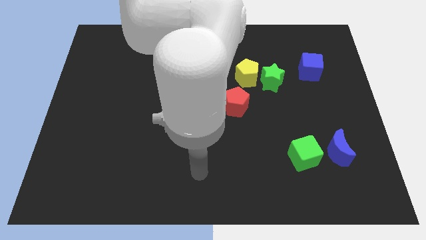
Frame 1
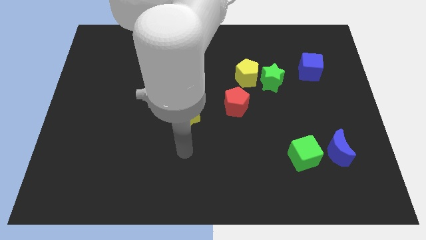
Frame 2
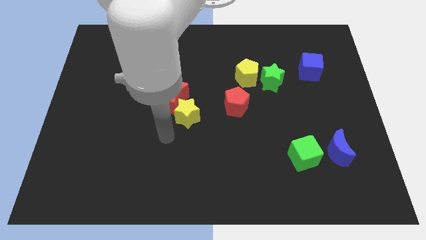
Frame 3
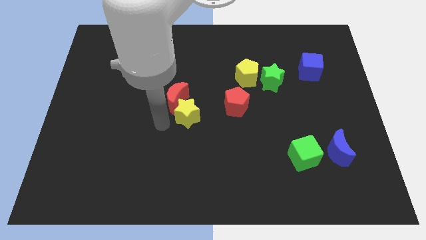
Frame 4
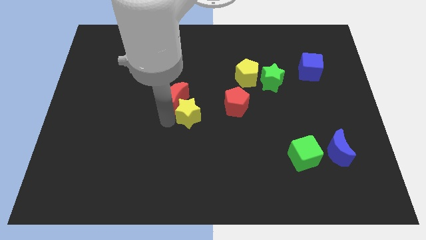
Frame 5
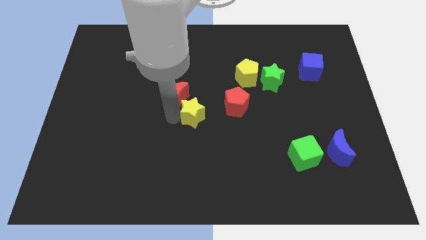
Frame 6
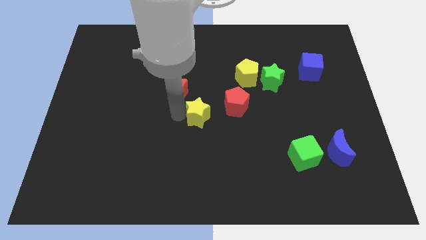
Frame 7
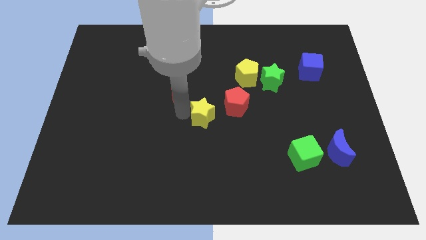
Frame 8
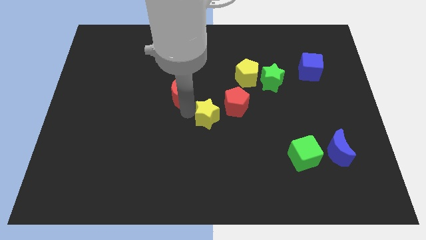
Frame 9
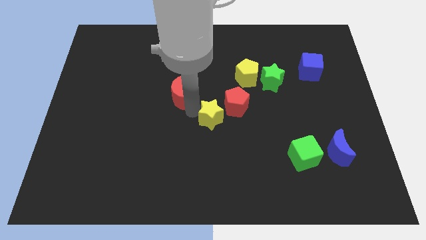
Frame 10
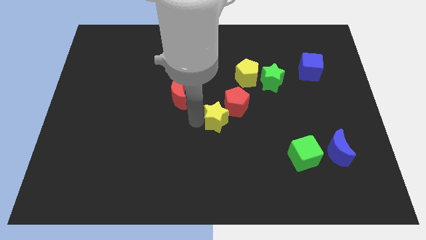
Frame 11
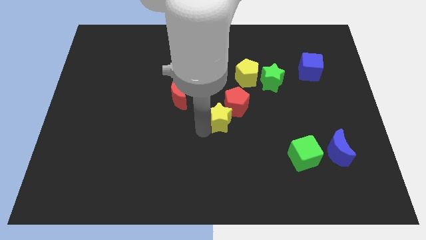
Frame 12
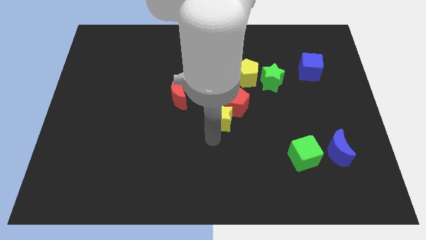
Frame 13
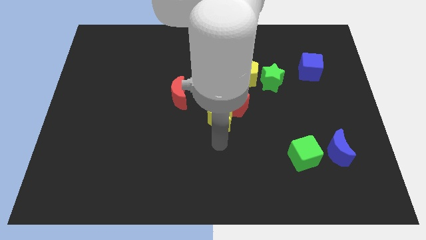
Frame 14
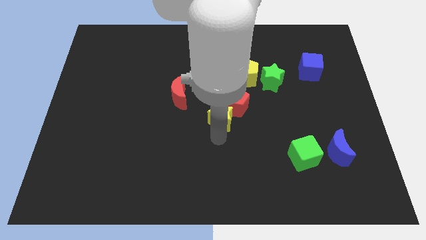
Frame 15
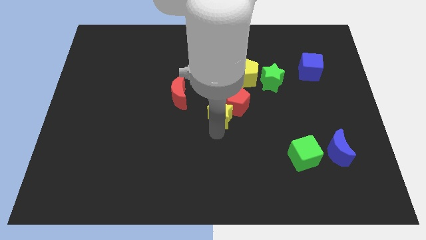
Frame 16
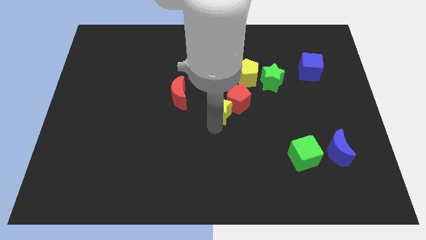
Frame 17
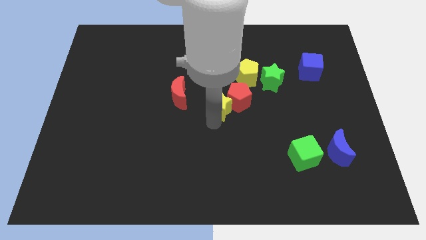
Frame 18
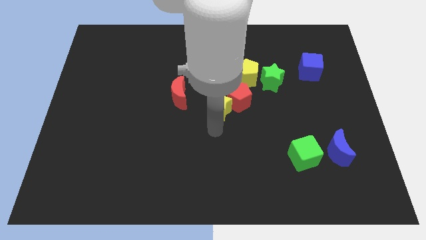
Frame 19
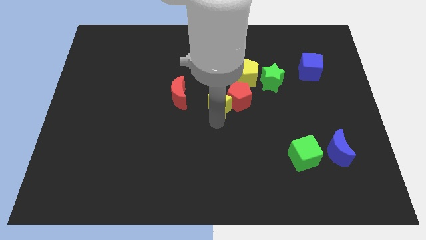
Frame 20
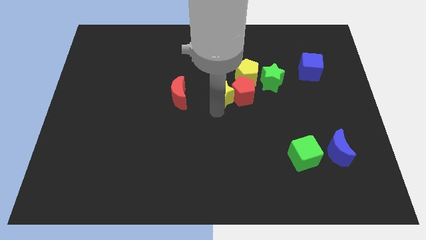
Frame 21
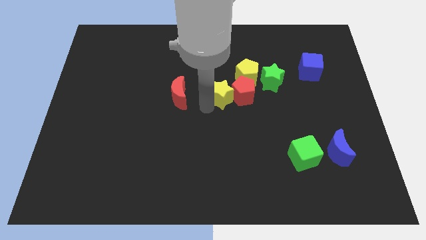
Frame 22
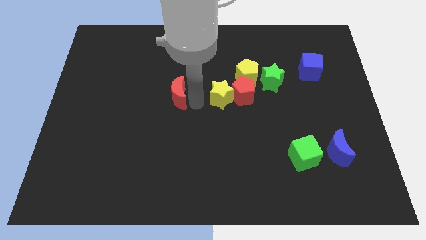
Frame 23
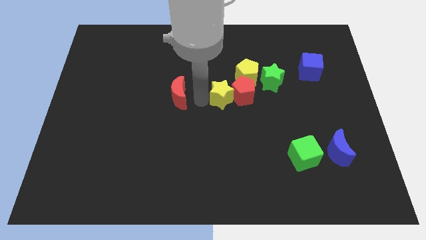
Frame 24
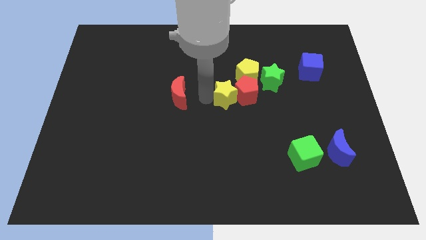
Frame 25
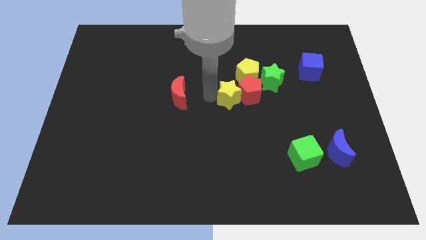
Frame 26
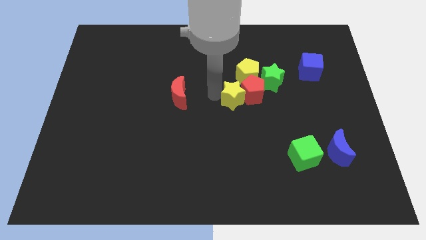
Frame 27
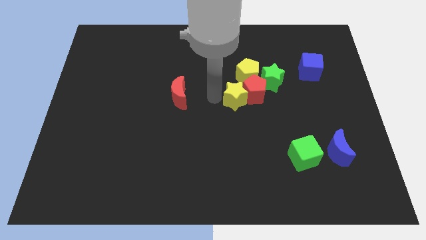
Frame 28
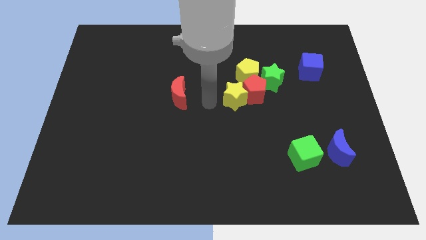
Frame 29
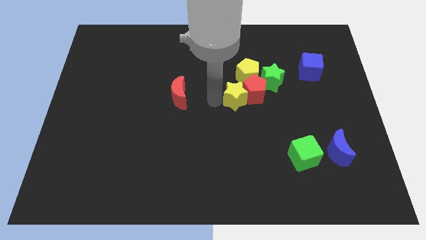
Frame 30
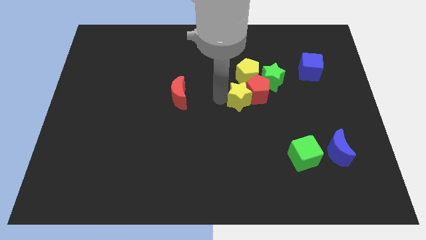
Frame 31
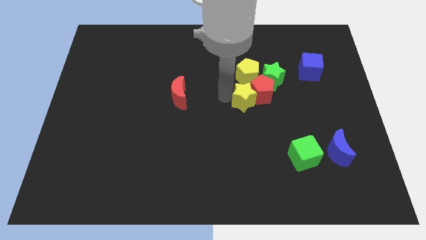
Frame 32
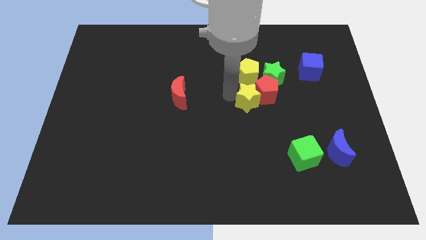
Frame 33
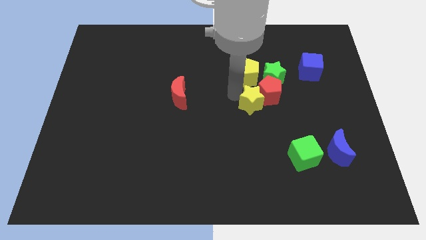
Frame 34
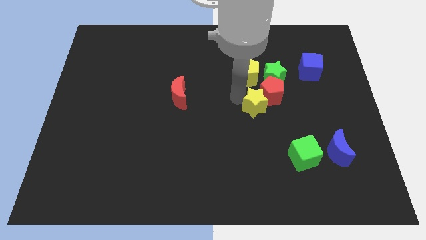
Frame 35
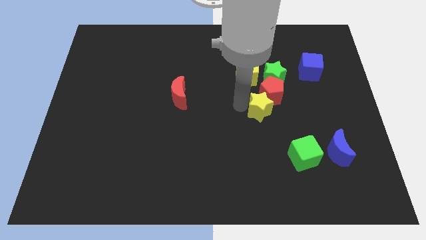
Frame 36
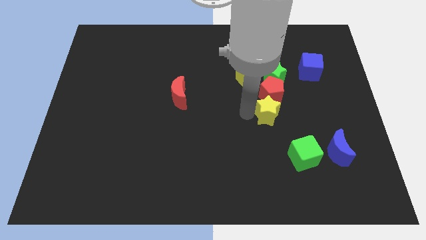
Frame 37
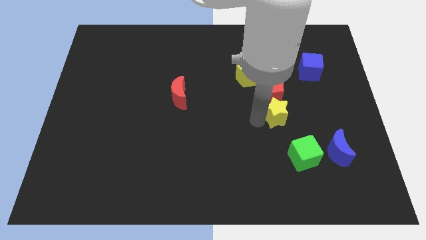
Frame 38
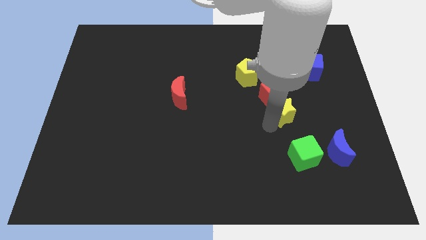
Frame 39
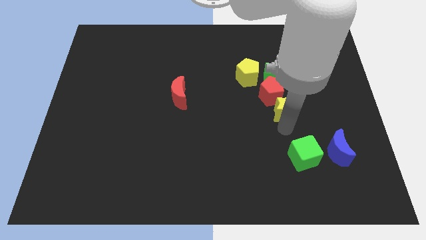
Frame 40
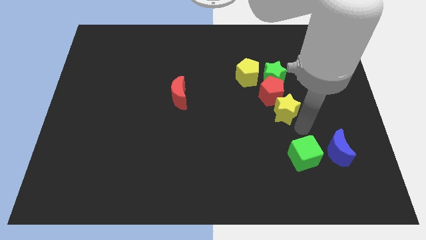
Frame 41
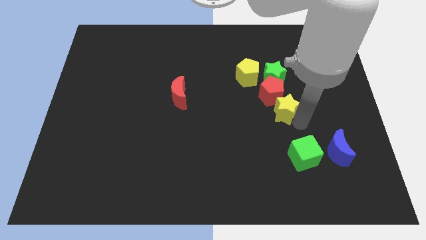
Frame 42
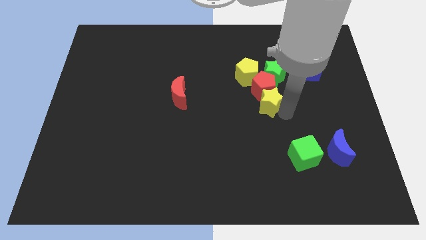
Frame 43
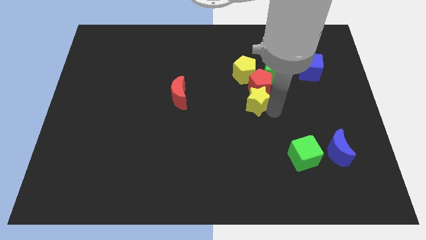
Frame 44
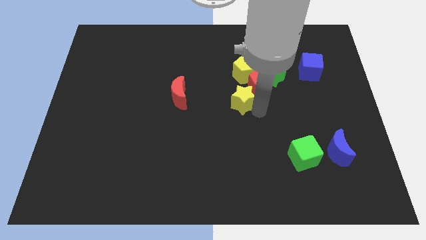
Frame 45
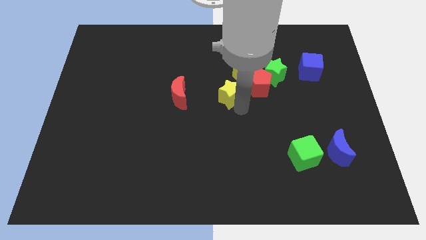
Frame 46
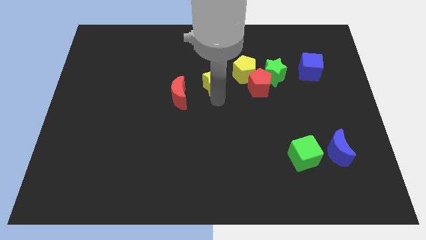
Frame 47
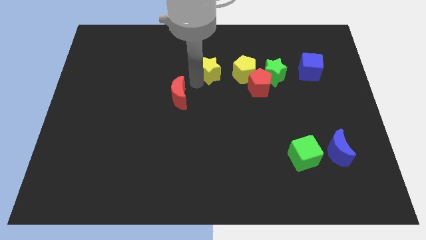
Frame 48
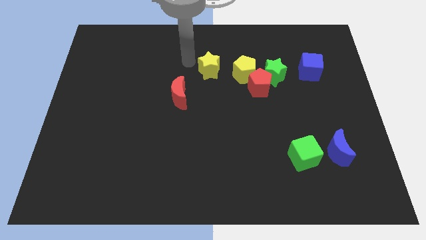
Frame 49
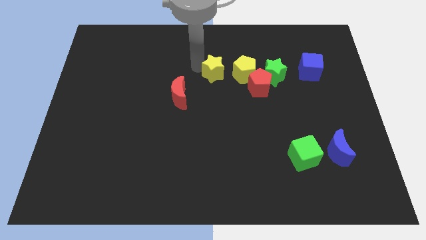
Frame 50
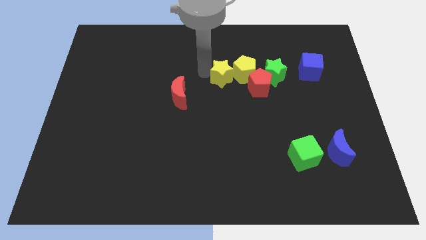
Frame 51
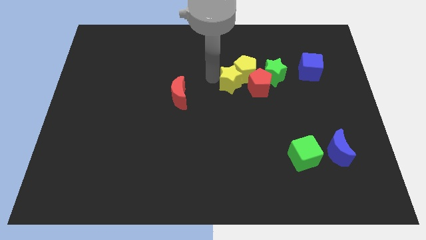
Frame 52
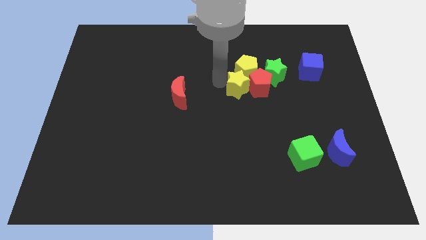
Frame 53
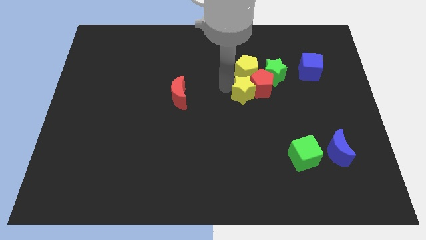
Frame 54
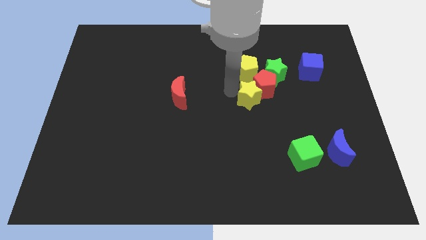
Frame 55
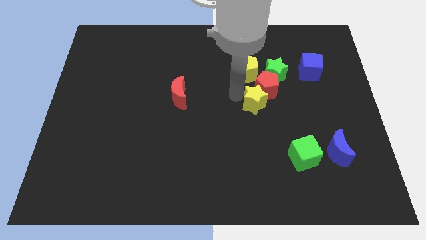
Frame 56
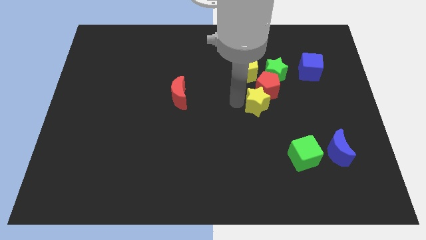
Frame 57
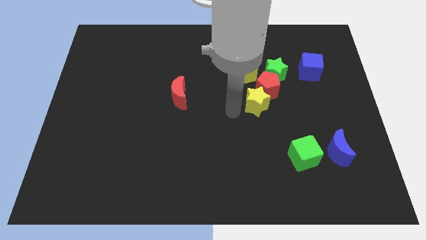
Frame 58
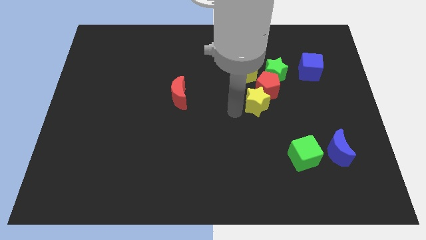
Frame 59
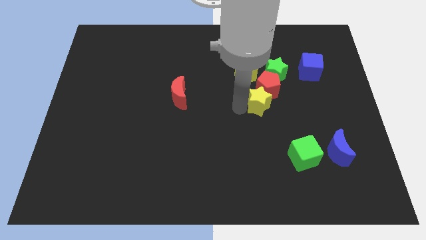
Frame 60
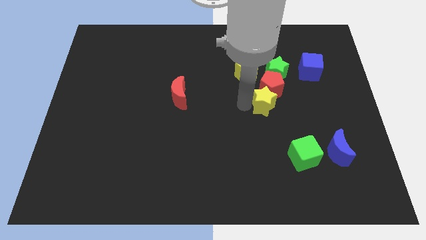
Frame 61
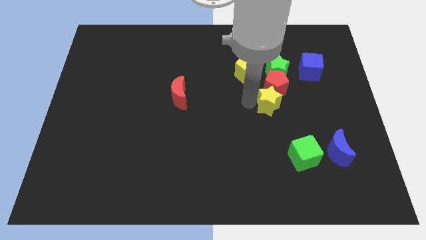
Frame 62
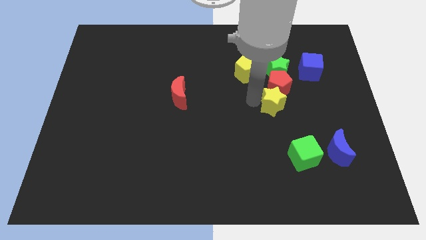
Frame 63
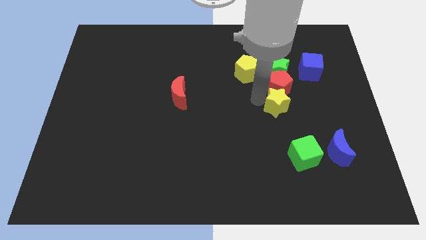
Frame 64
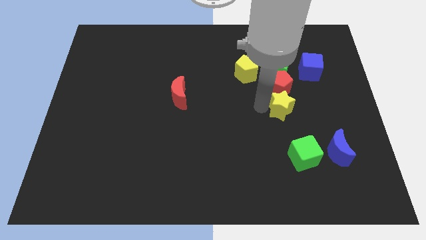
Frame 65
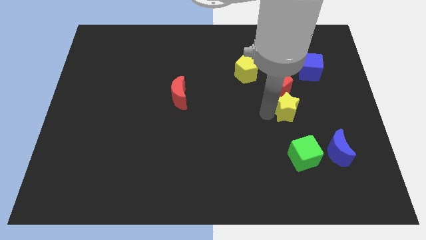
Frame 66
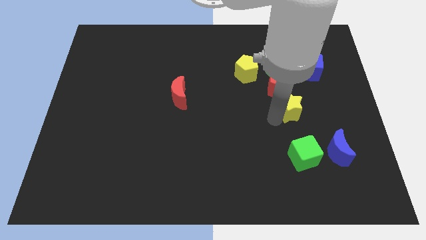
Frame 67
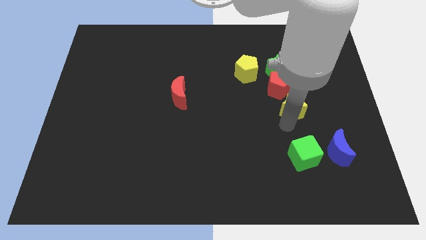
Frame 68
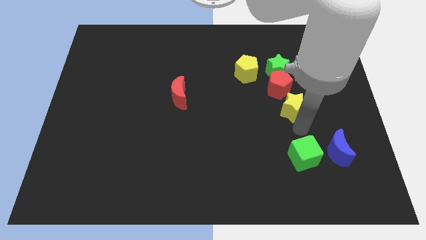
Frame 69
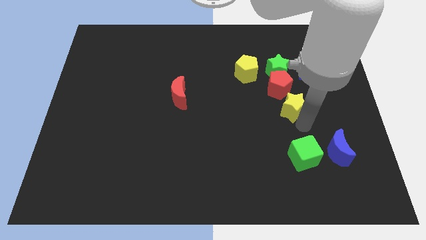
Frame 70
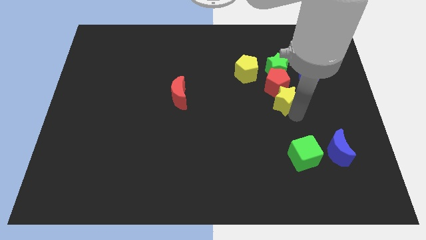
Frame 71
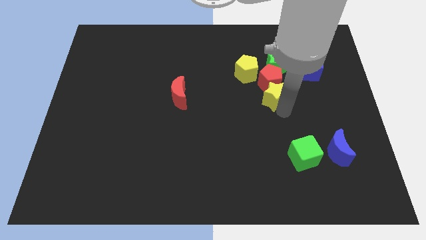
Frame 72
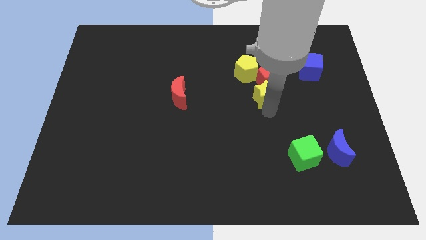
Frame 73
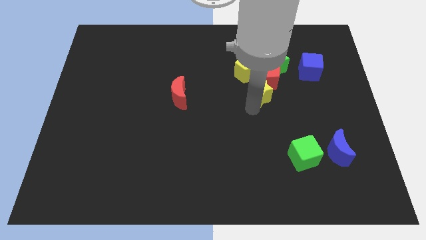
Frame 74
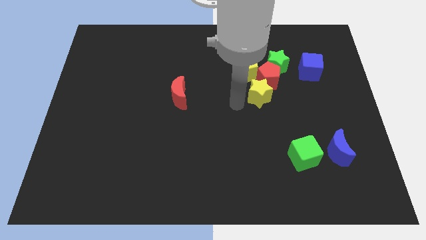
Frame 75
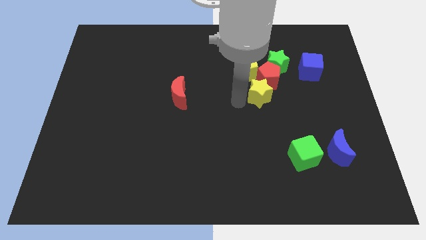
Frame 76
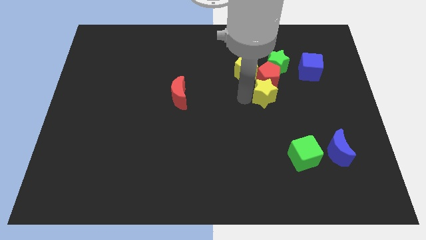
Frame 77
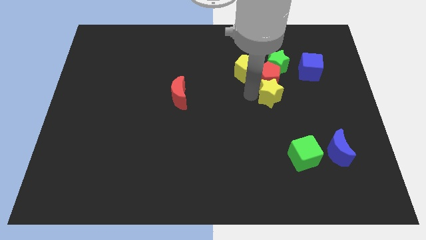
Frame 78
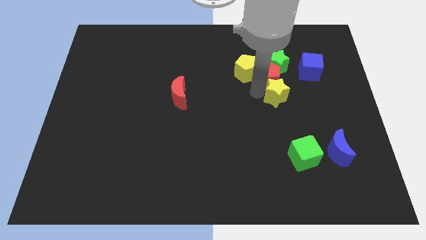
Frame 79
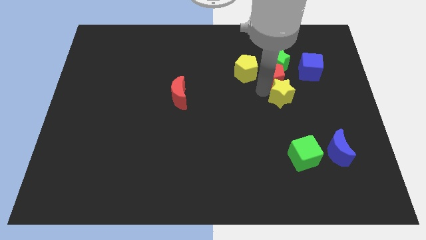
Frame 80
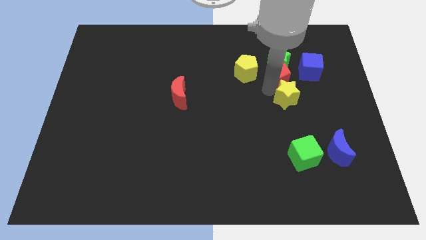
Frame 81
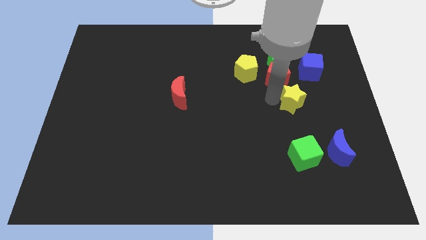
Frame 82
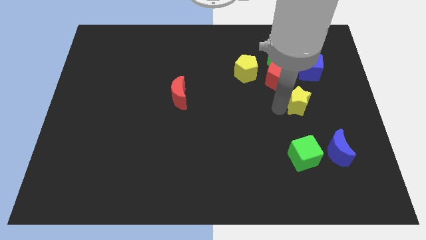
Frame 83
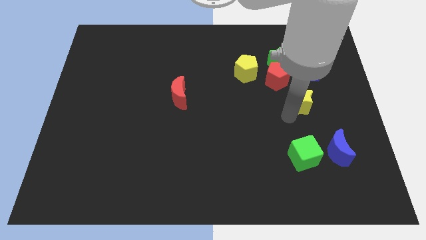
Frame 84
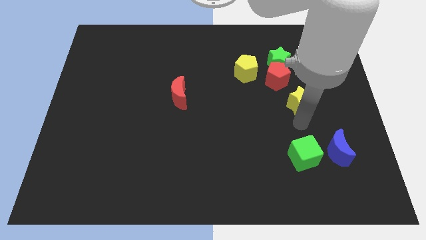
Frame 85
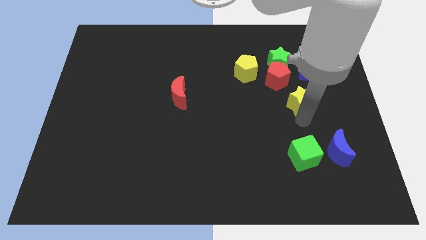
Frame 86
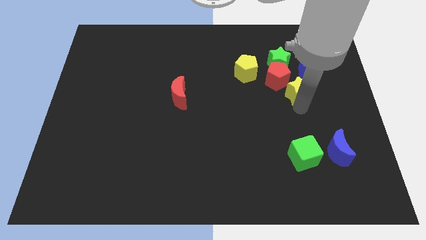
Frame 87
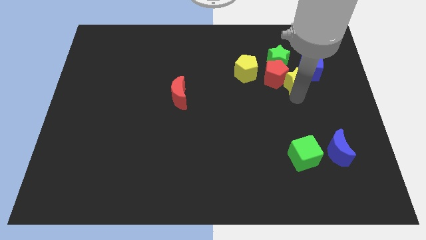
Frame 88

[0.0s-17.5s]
put the yellow star to the blue cube
